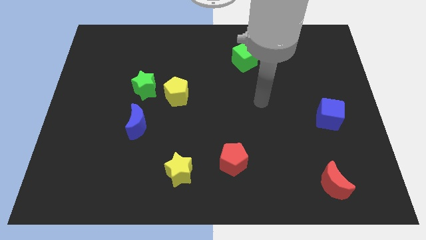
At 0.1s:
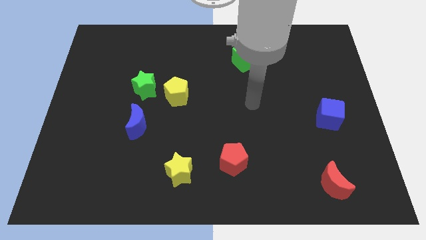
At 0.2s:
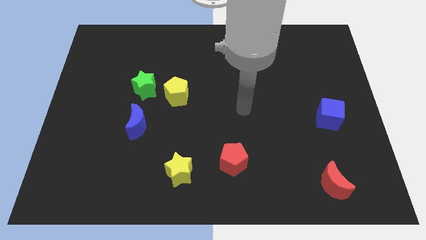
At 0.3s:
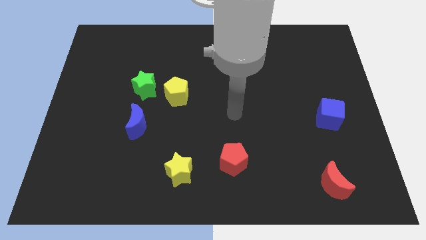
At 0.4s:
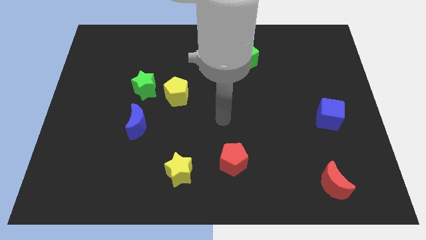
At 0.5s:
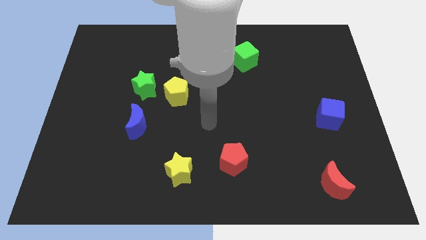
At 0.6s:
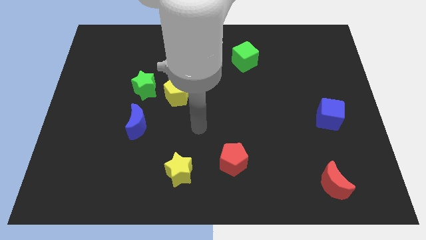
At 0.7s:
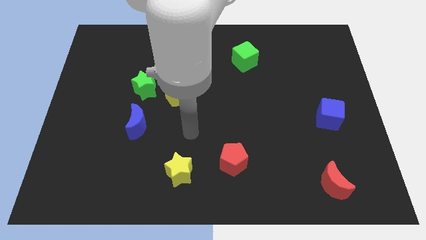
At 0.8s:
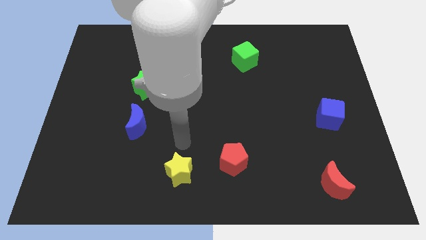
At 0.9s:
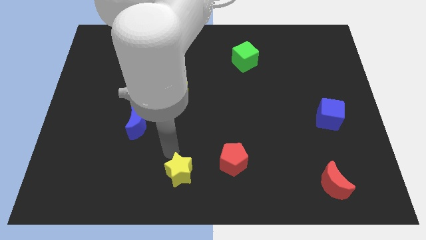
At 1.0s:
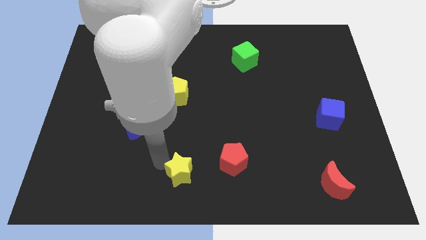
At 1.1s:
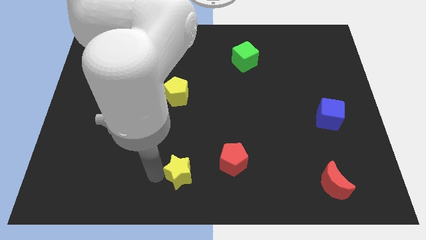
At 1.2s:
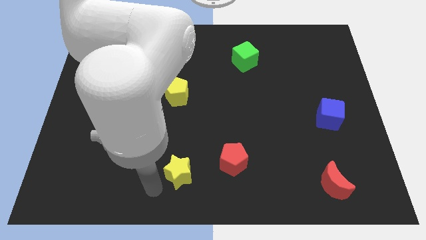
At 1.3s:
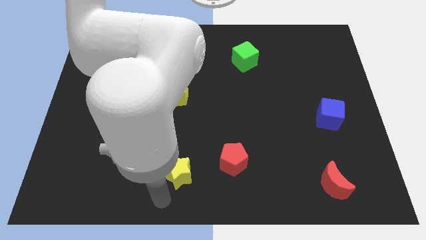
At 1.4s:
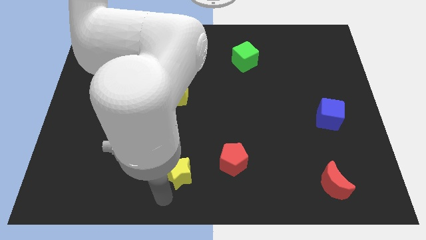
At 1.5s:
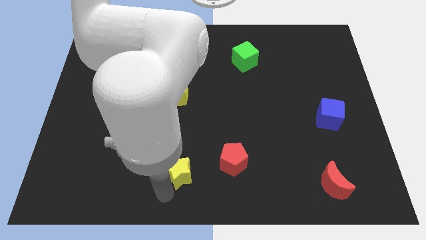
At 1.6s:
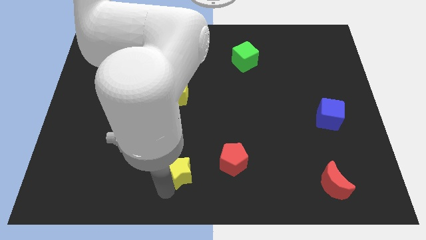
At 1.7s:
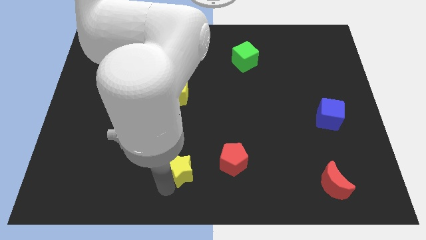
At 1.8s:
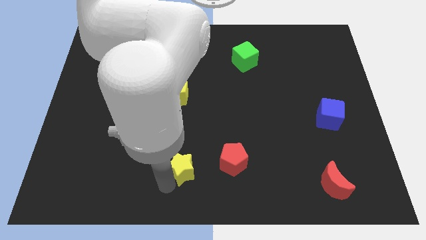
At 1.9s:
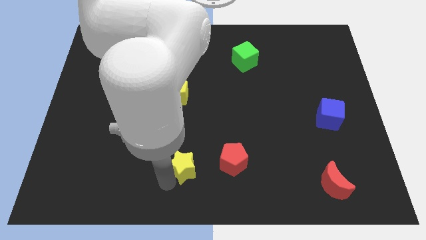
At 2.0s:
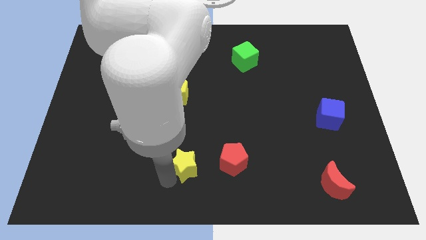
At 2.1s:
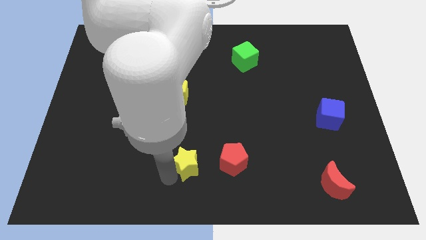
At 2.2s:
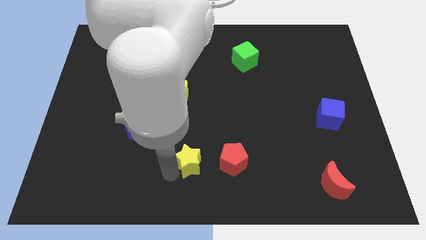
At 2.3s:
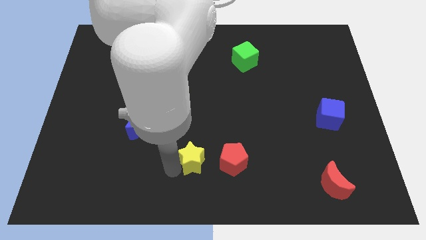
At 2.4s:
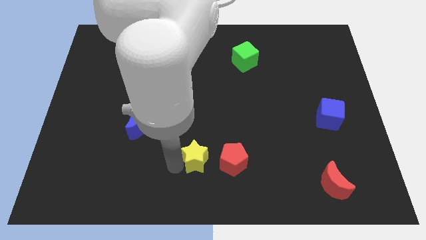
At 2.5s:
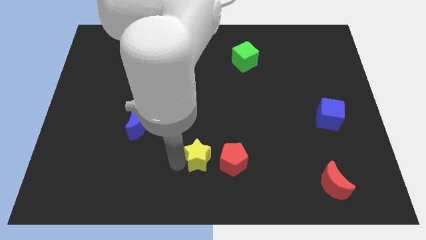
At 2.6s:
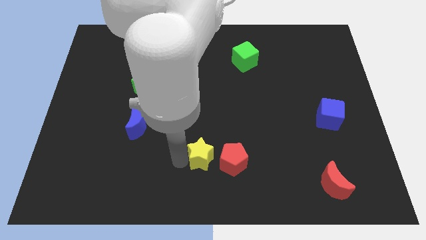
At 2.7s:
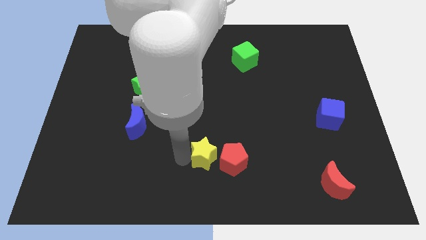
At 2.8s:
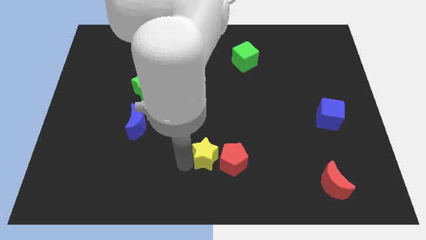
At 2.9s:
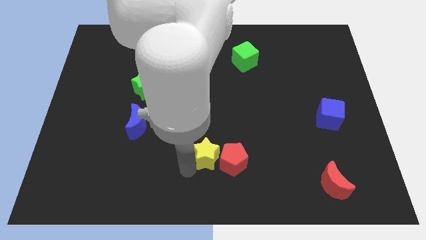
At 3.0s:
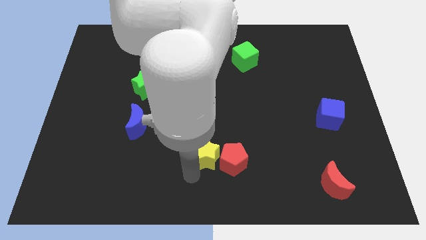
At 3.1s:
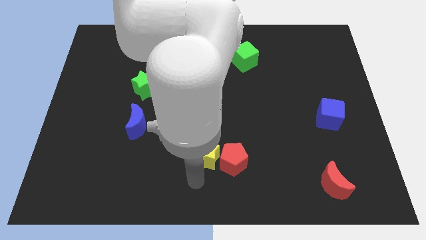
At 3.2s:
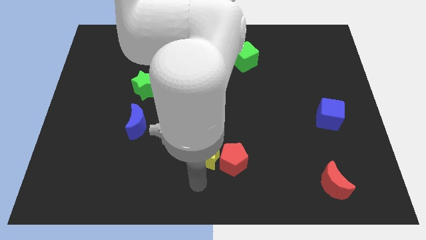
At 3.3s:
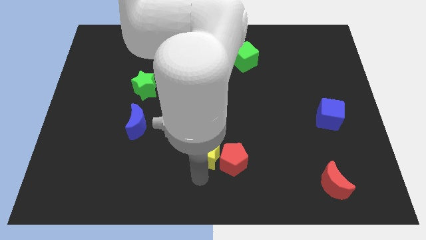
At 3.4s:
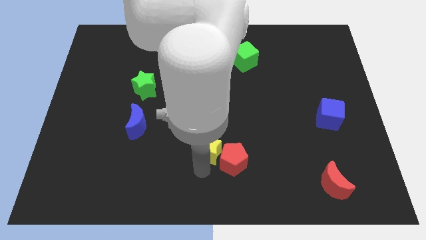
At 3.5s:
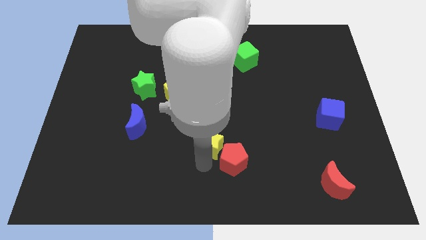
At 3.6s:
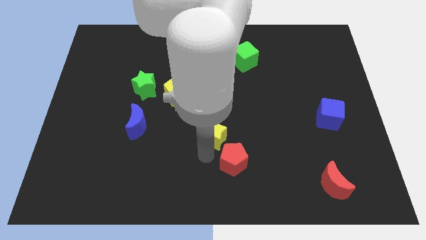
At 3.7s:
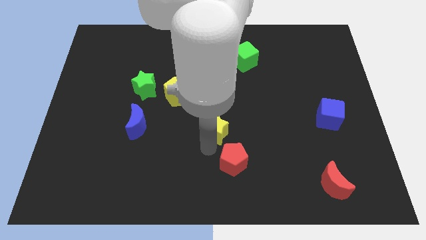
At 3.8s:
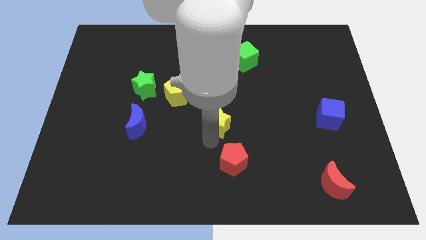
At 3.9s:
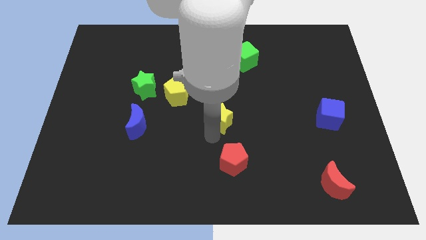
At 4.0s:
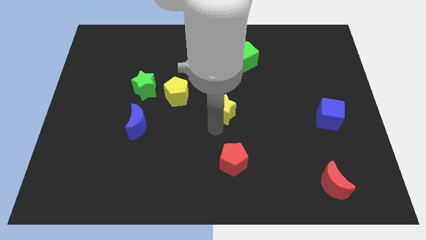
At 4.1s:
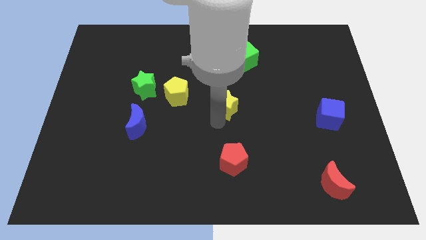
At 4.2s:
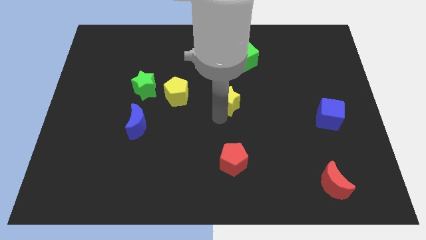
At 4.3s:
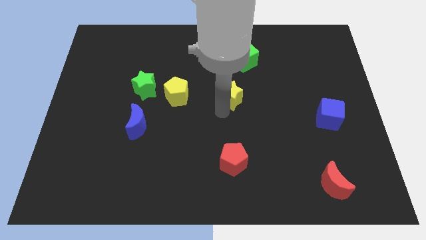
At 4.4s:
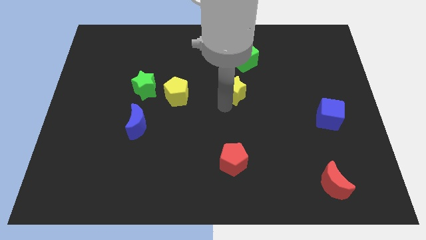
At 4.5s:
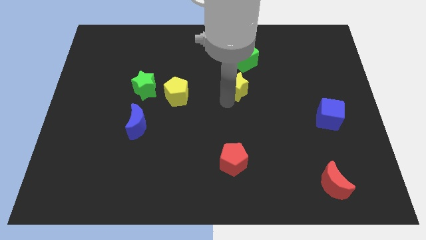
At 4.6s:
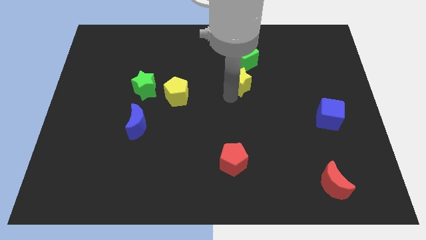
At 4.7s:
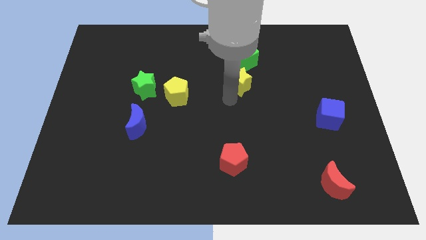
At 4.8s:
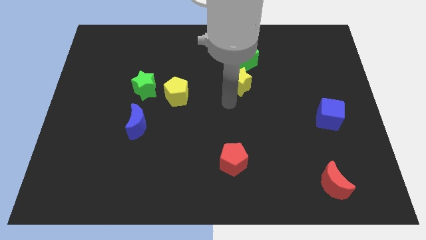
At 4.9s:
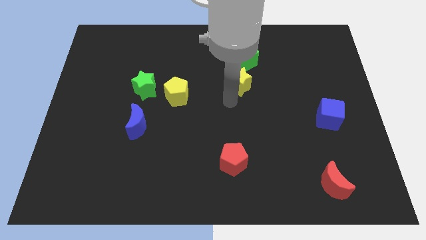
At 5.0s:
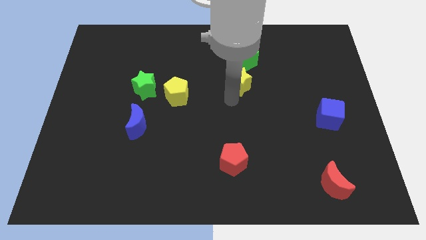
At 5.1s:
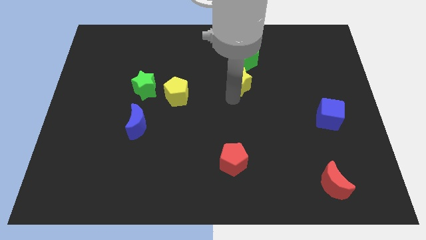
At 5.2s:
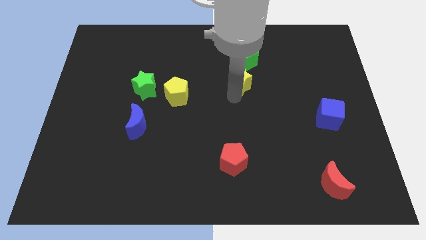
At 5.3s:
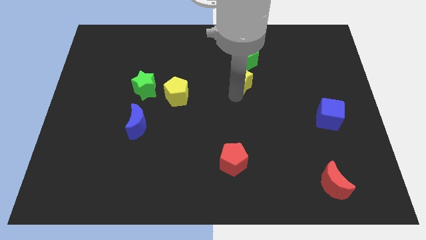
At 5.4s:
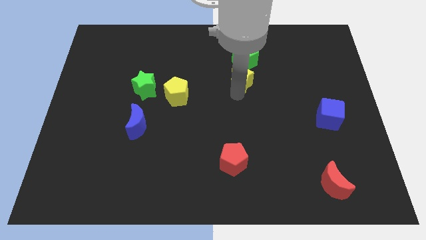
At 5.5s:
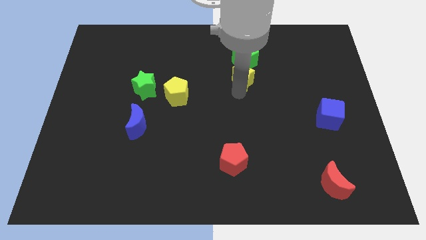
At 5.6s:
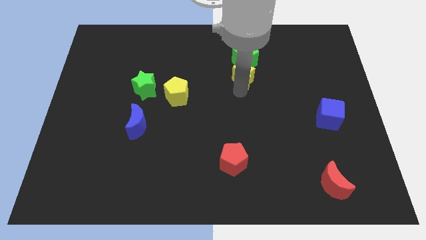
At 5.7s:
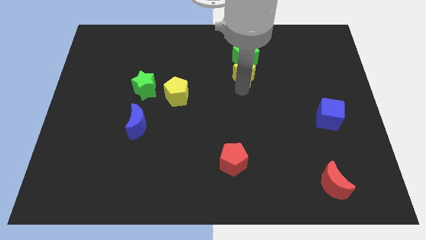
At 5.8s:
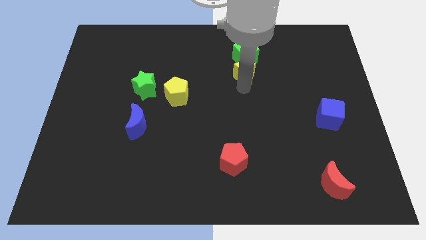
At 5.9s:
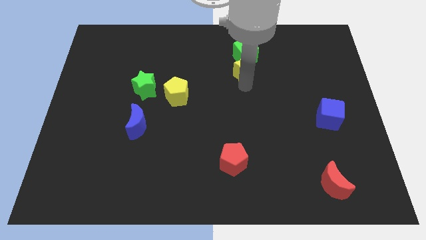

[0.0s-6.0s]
slide the yellow star next to the green cube

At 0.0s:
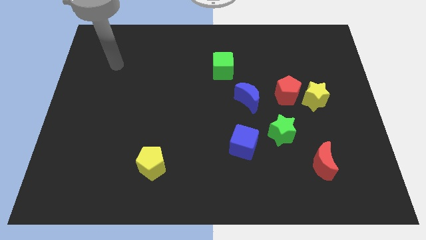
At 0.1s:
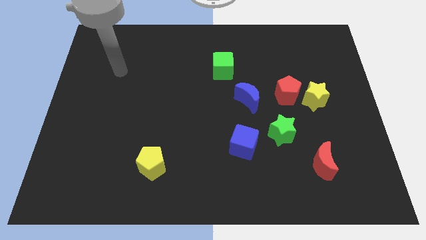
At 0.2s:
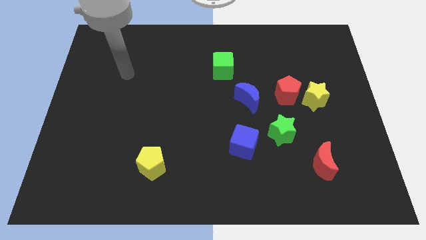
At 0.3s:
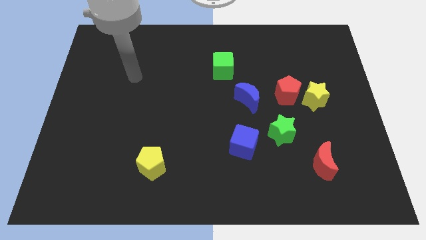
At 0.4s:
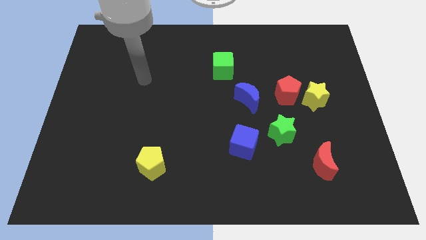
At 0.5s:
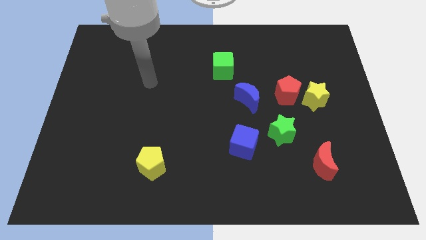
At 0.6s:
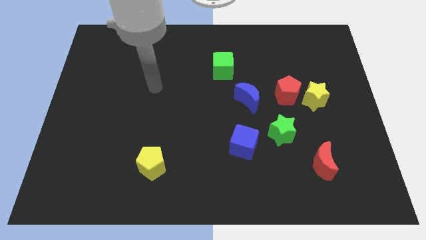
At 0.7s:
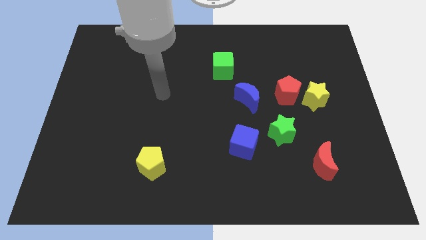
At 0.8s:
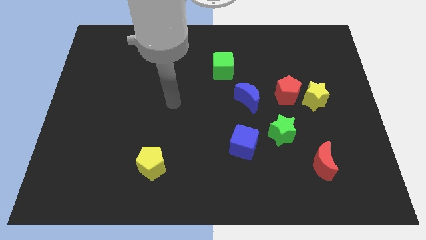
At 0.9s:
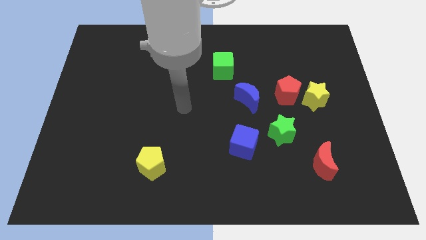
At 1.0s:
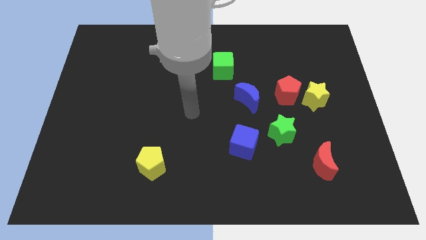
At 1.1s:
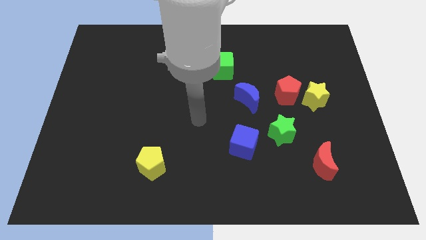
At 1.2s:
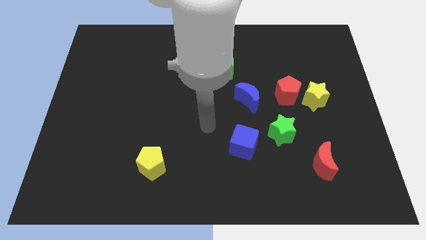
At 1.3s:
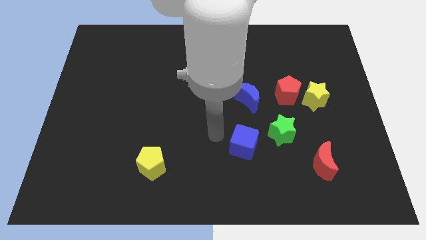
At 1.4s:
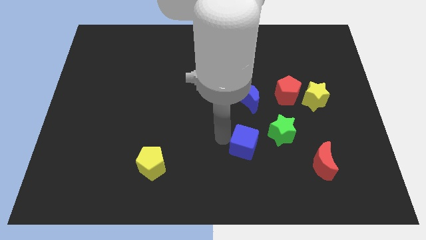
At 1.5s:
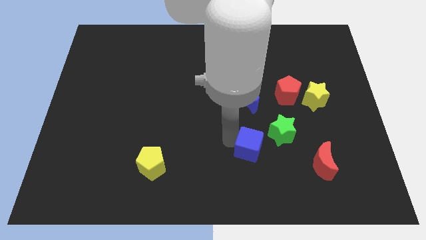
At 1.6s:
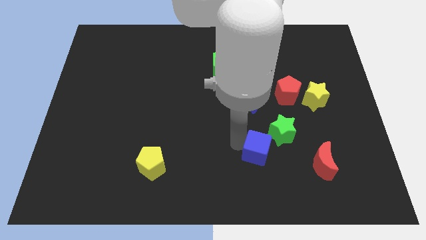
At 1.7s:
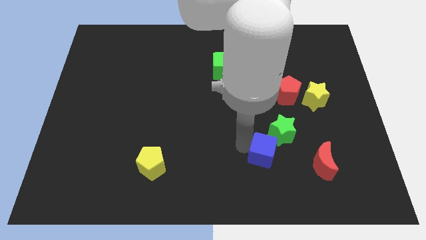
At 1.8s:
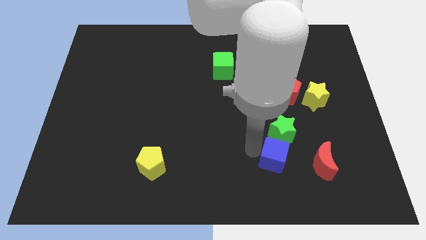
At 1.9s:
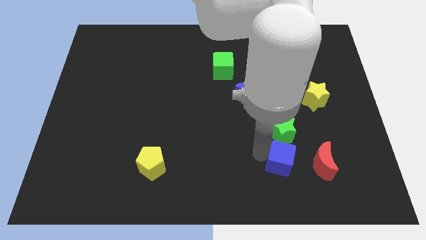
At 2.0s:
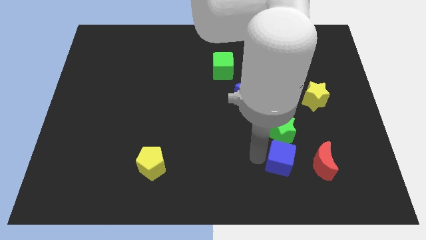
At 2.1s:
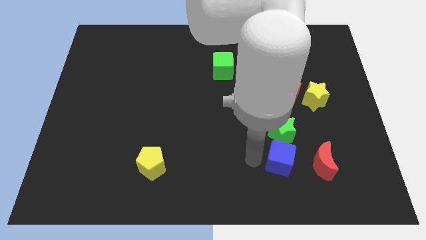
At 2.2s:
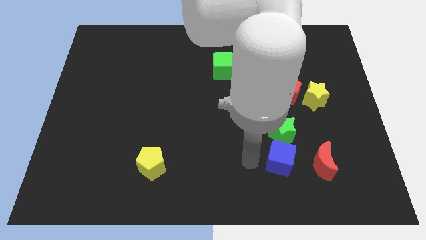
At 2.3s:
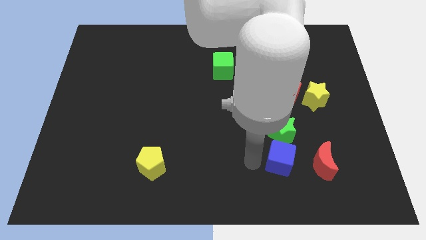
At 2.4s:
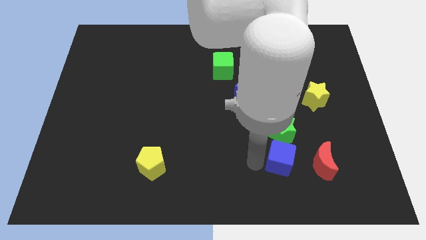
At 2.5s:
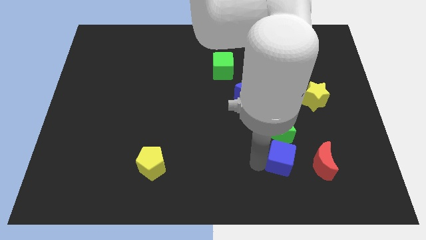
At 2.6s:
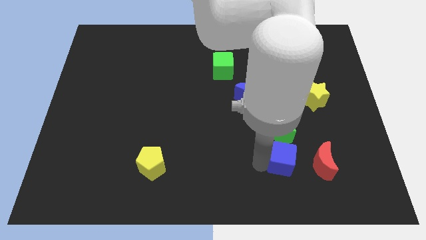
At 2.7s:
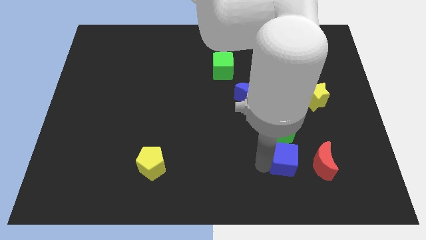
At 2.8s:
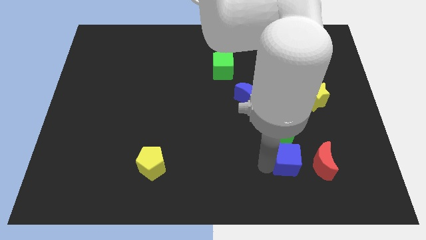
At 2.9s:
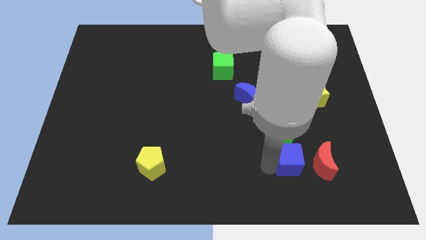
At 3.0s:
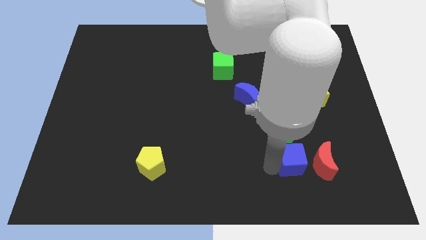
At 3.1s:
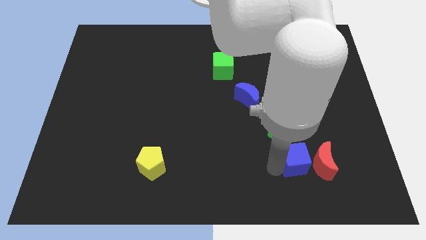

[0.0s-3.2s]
move the blue cube close to the red moon
